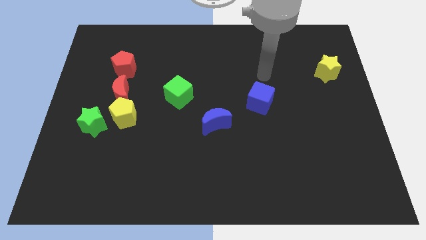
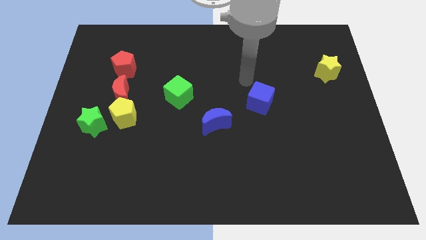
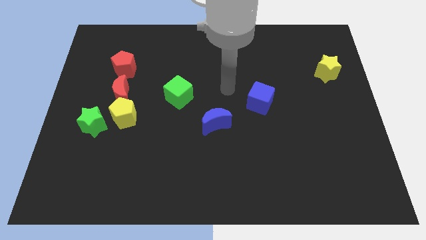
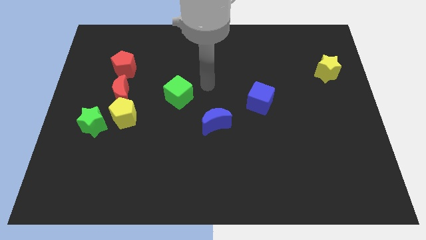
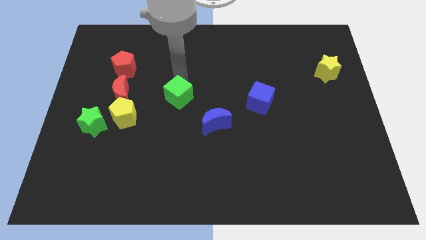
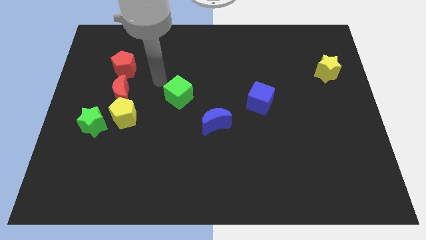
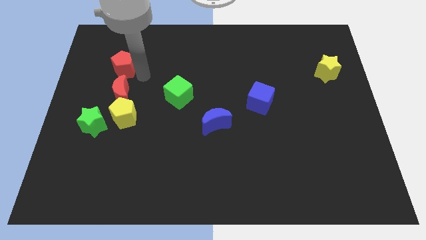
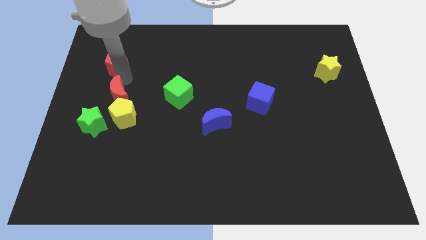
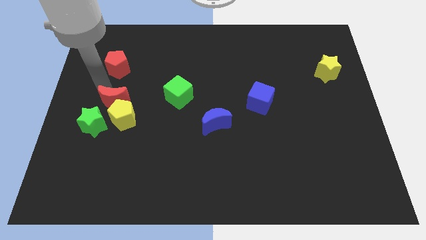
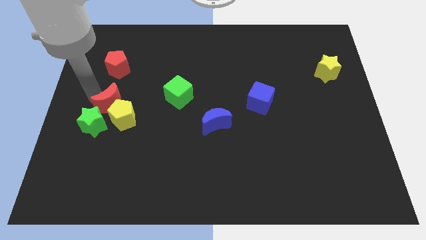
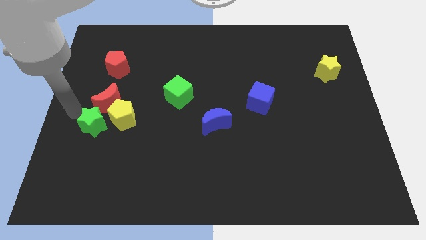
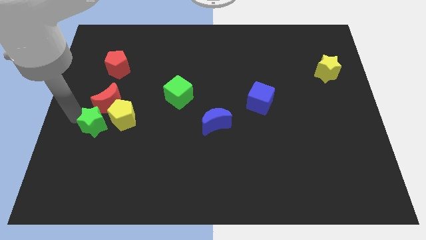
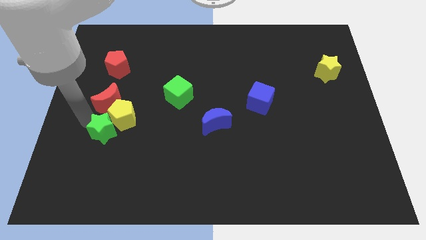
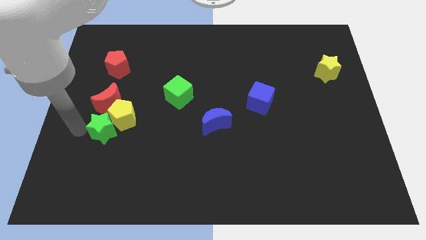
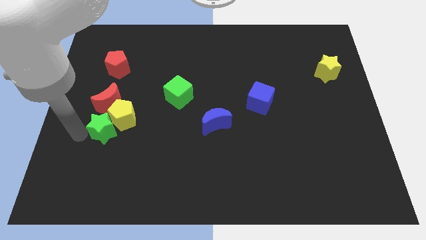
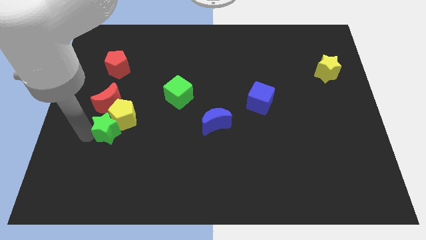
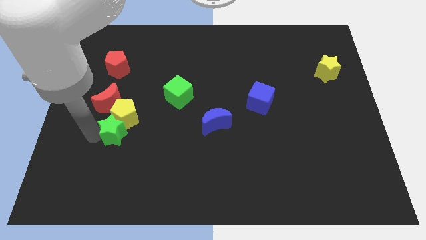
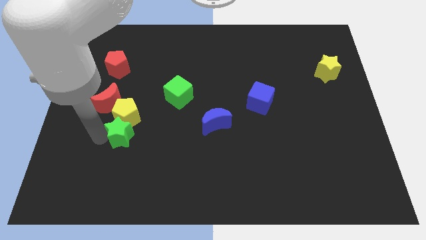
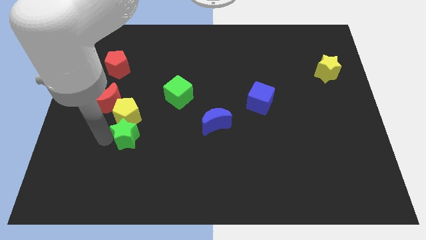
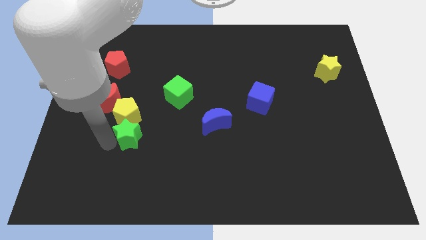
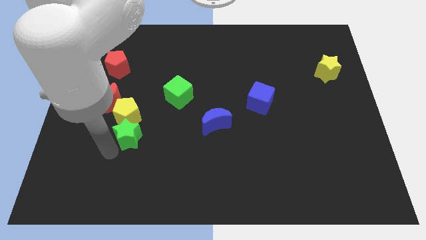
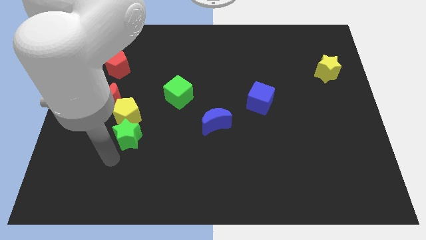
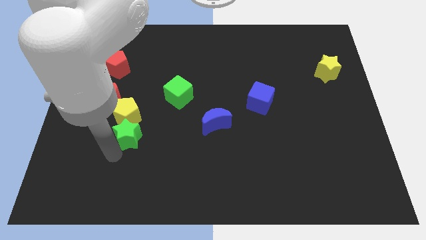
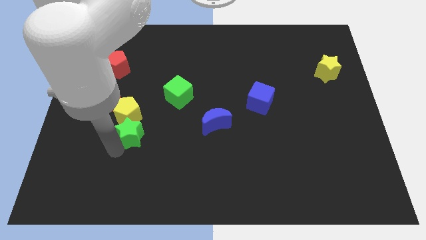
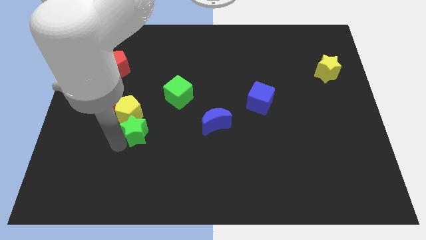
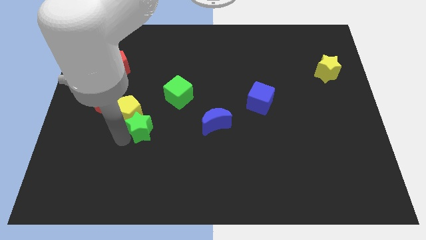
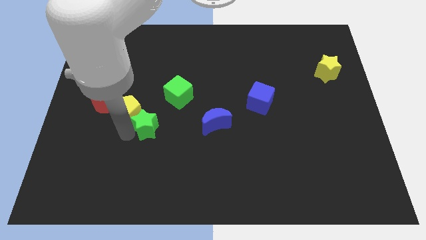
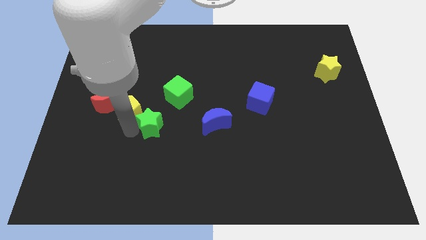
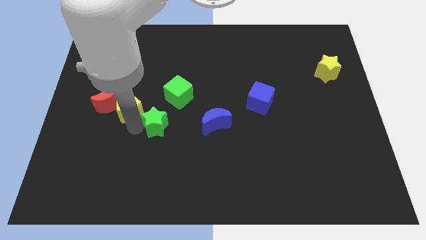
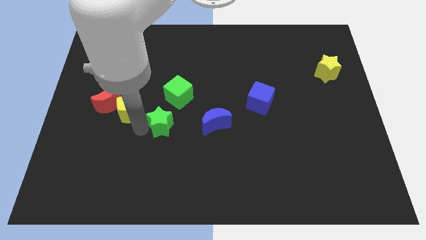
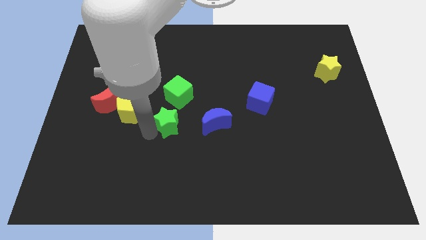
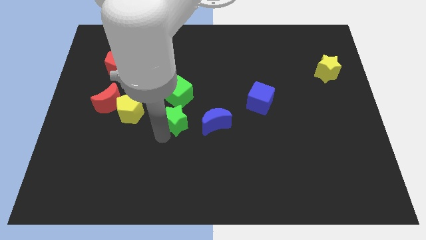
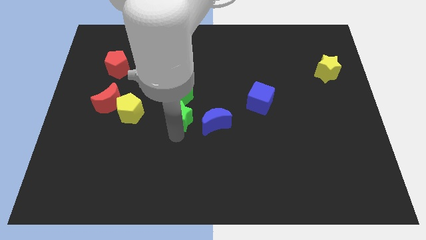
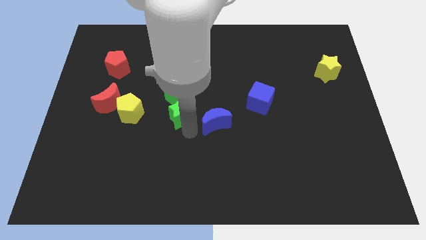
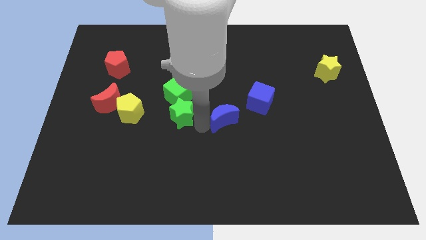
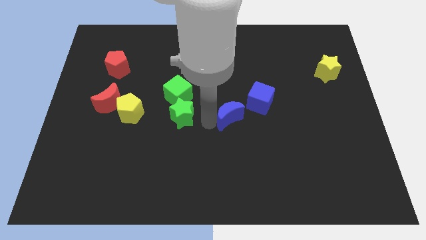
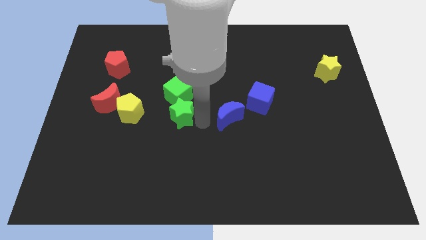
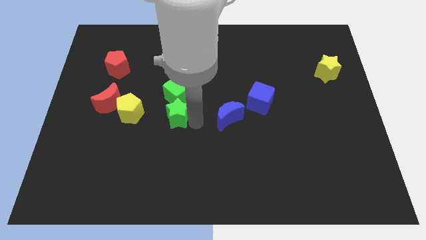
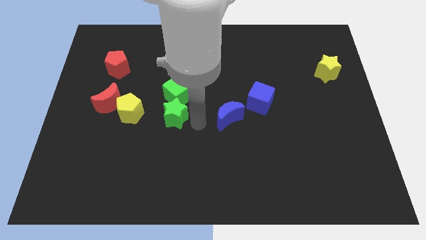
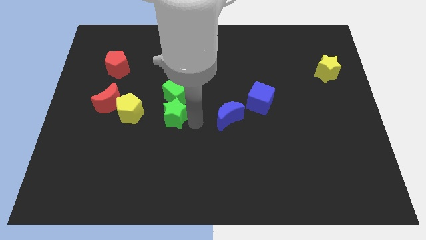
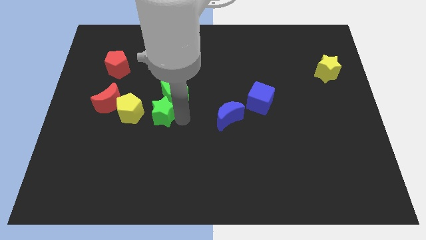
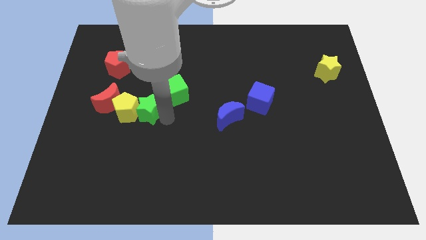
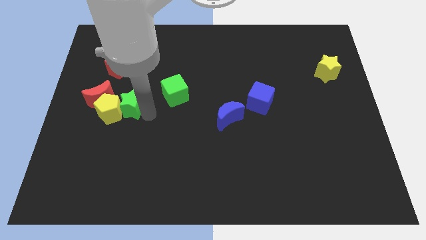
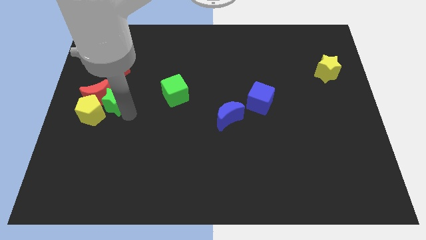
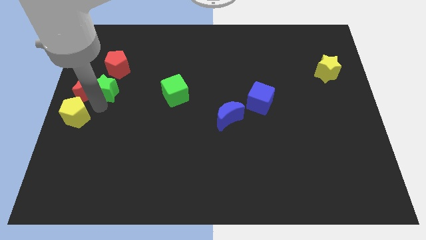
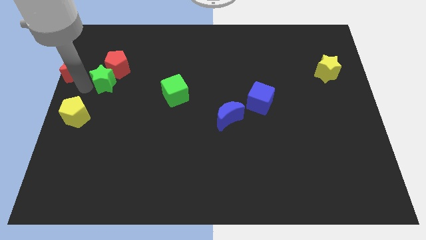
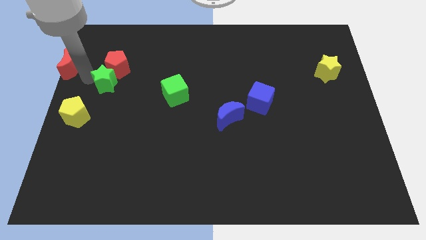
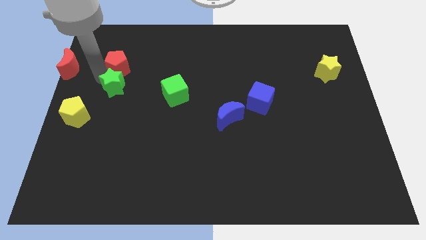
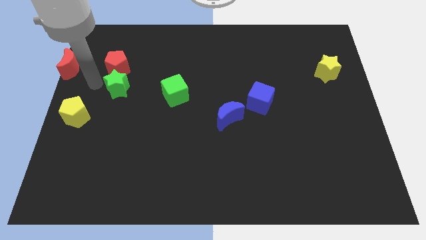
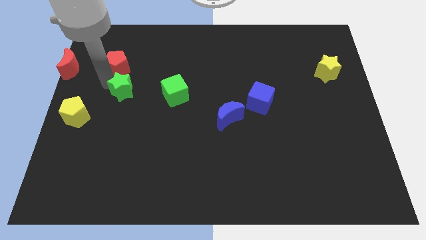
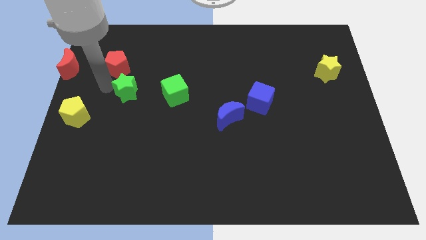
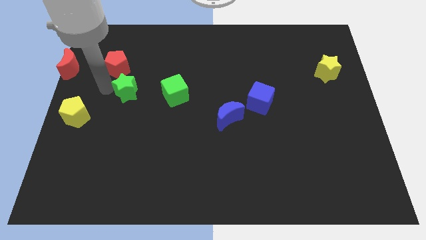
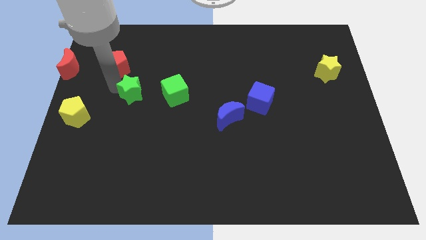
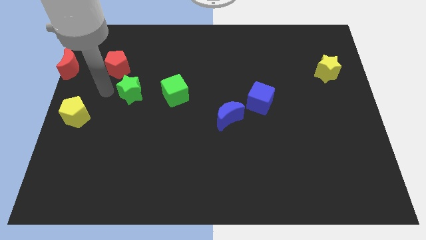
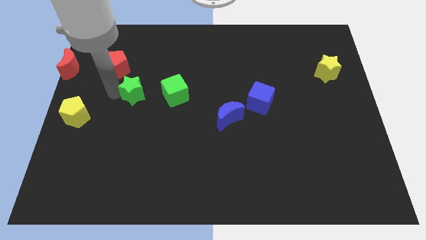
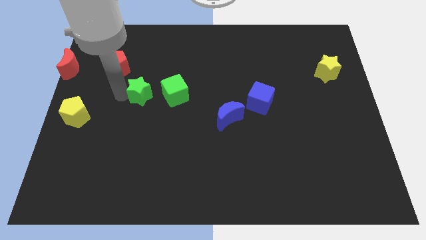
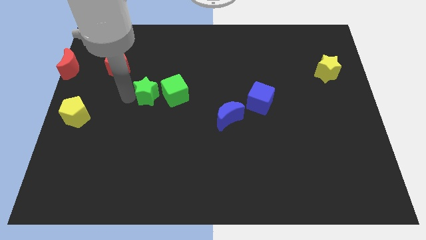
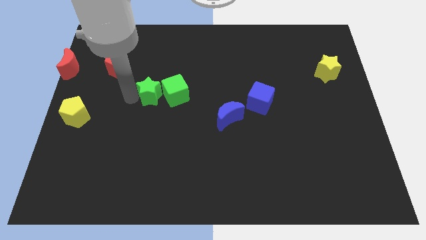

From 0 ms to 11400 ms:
move the green star close to the green cube

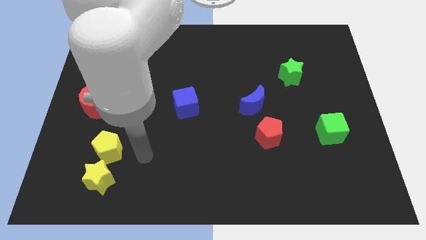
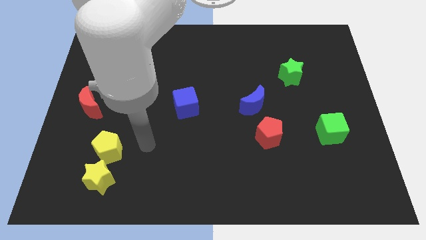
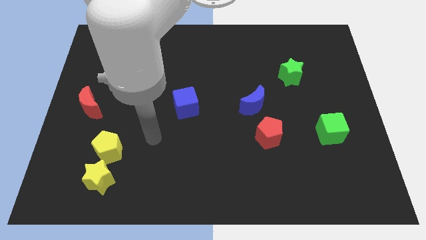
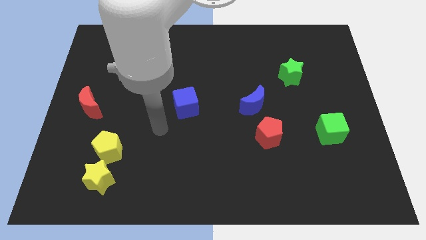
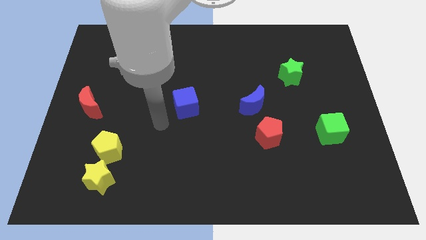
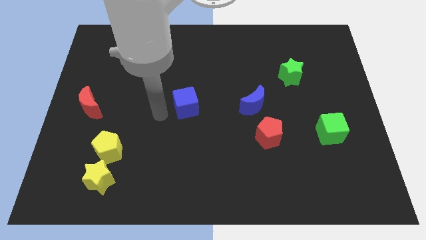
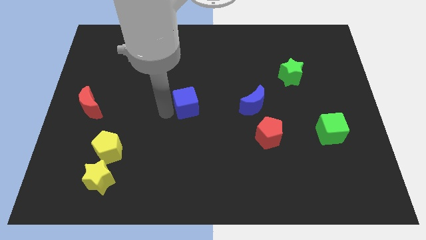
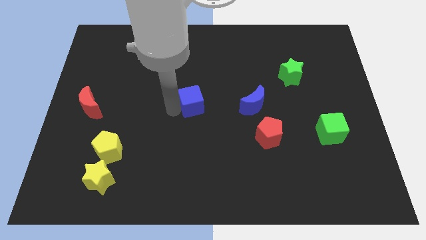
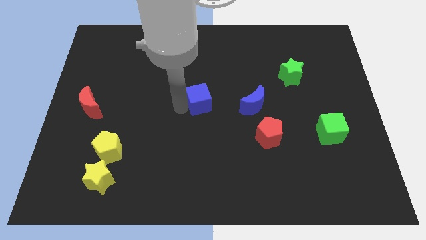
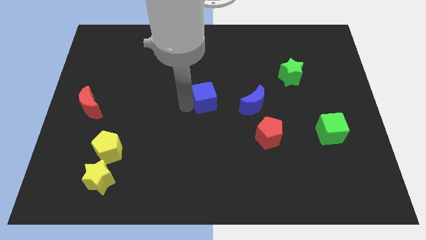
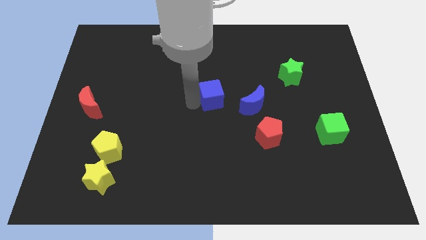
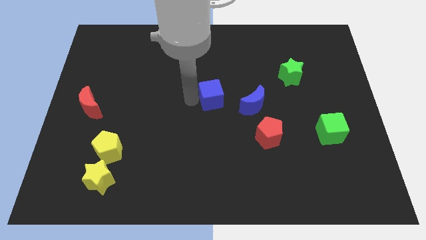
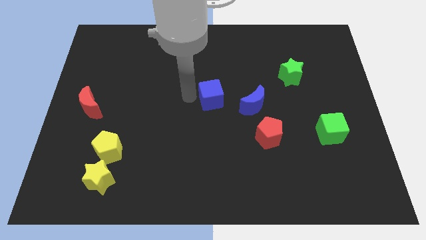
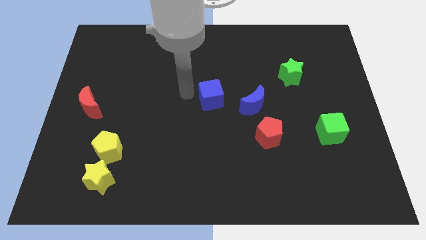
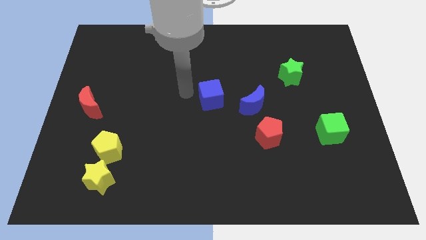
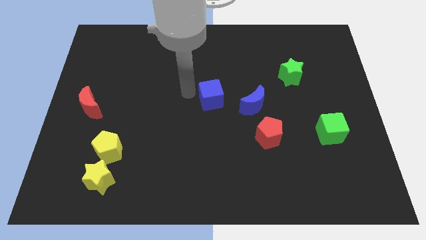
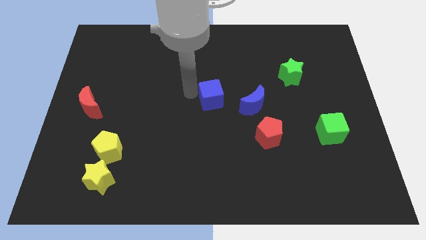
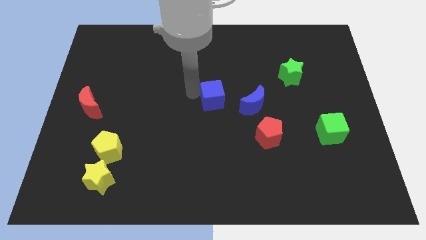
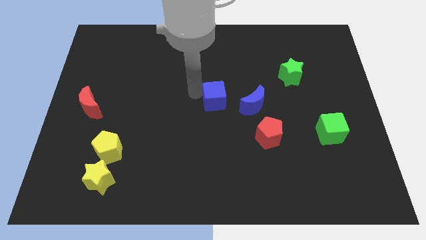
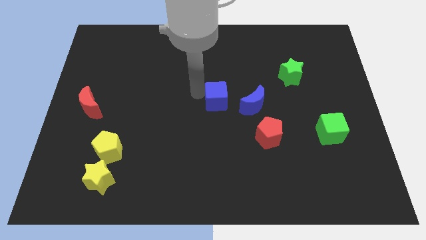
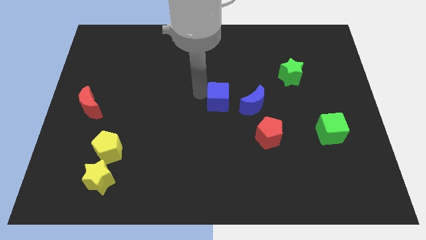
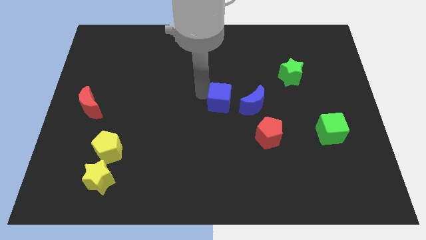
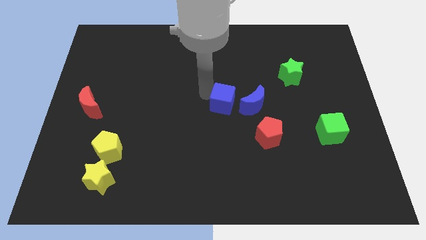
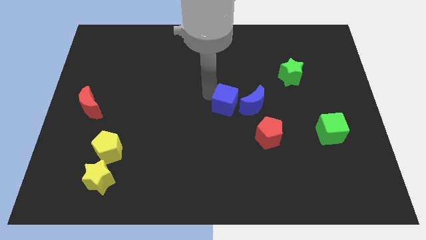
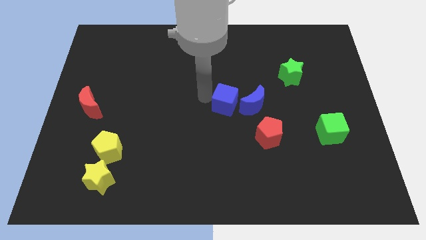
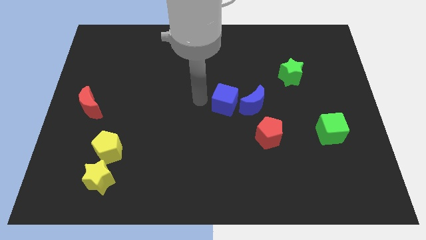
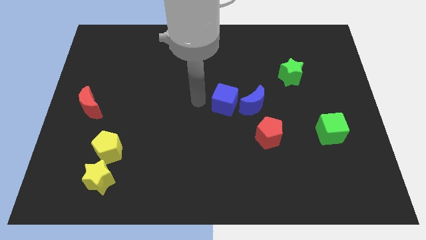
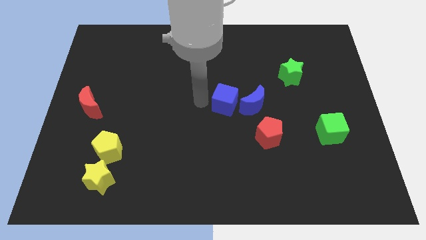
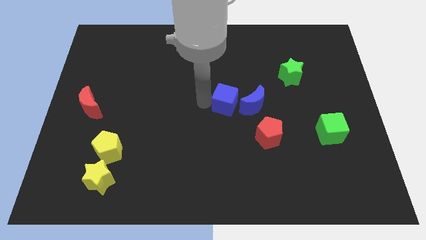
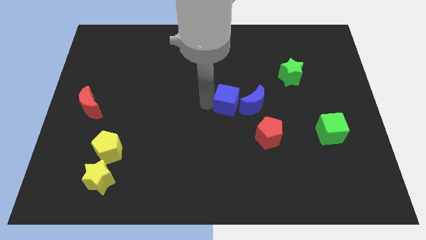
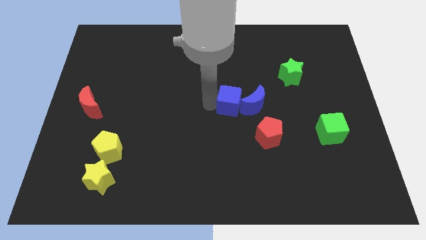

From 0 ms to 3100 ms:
move the blue cube close to the blue moon
